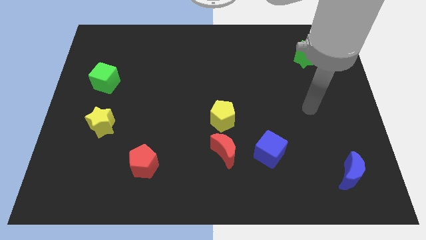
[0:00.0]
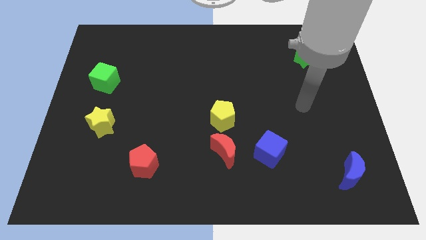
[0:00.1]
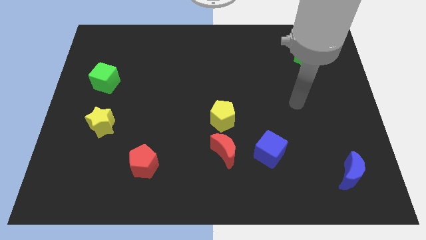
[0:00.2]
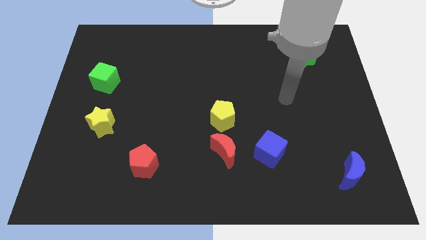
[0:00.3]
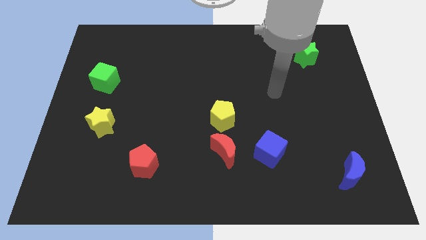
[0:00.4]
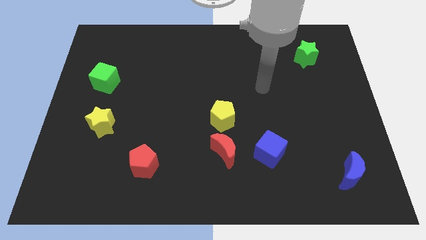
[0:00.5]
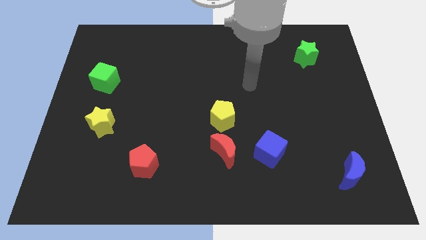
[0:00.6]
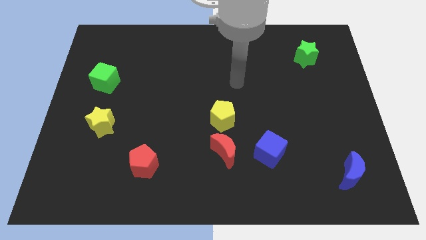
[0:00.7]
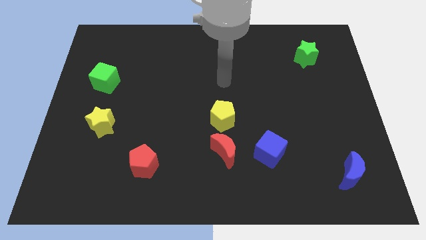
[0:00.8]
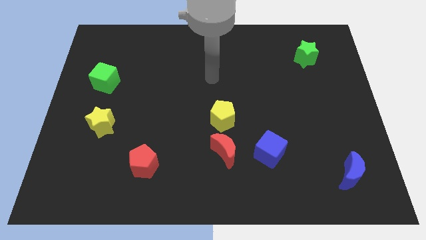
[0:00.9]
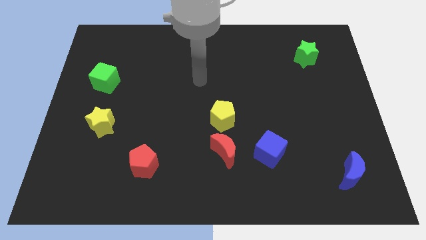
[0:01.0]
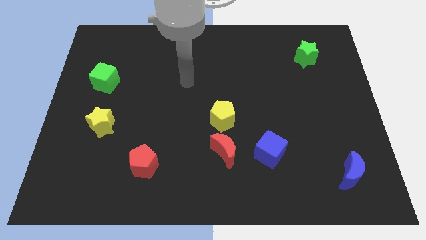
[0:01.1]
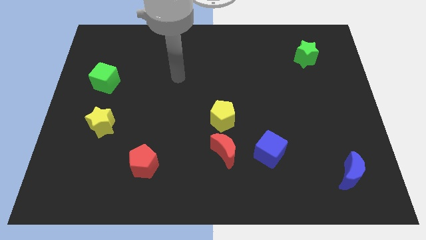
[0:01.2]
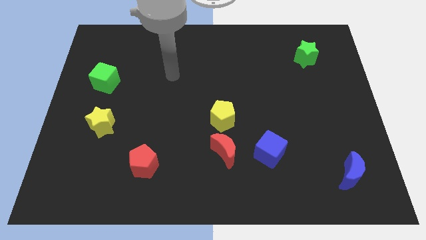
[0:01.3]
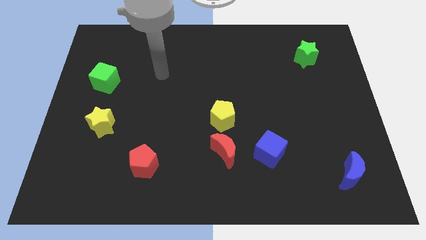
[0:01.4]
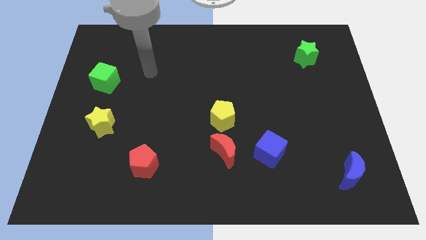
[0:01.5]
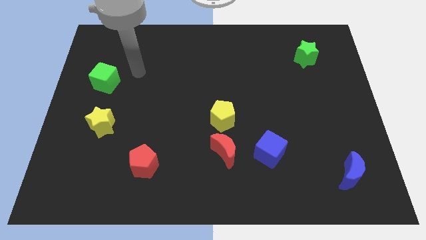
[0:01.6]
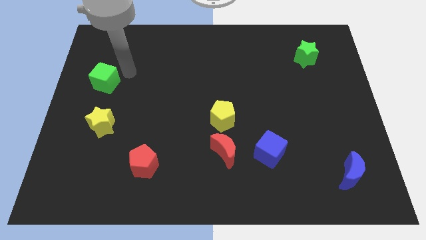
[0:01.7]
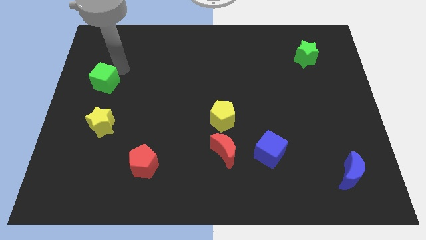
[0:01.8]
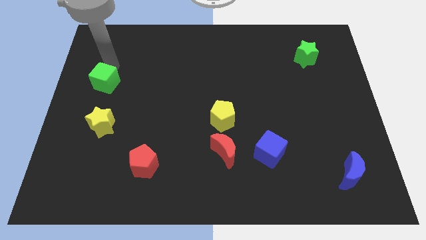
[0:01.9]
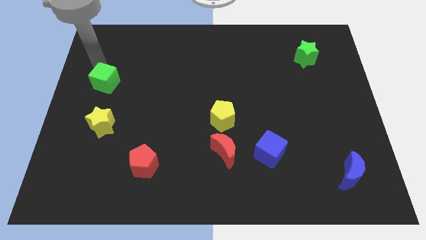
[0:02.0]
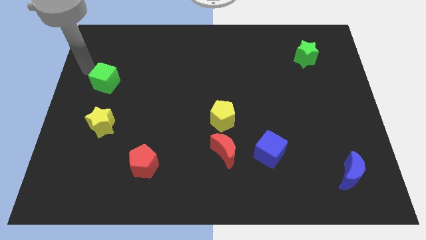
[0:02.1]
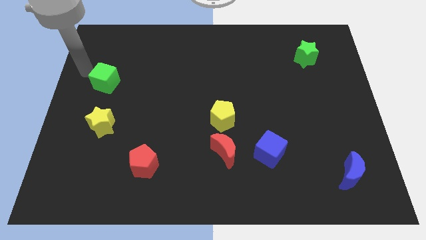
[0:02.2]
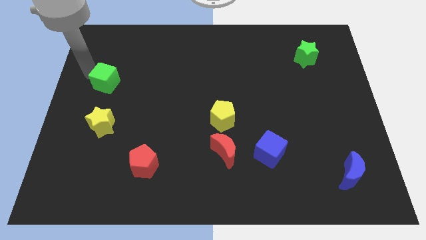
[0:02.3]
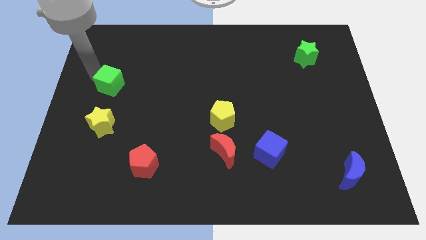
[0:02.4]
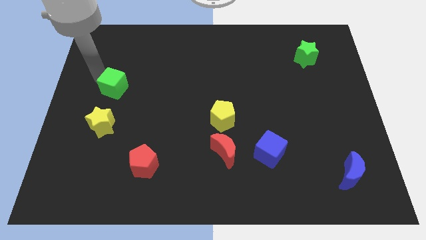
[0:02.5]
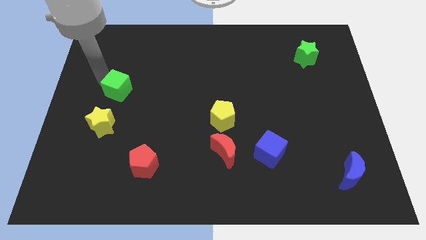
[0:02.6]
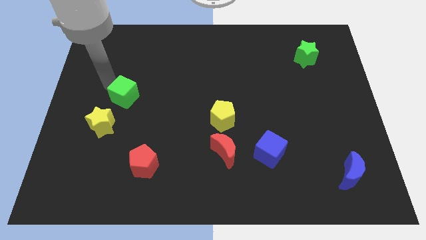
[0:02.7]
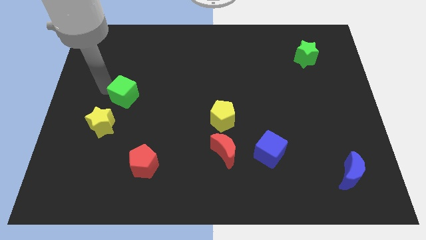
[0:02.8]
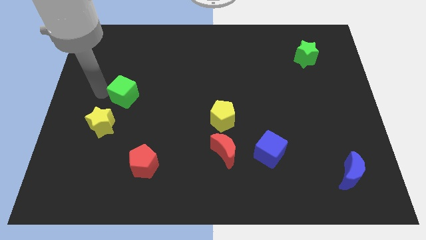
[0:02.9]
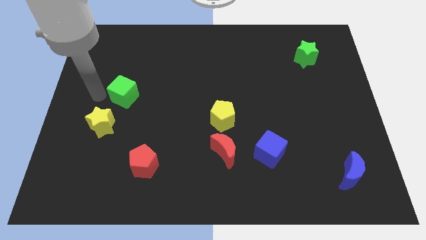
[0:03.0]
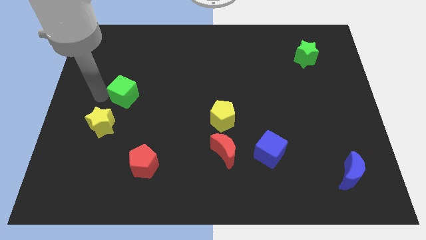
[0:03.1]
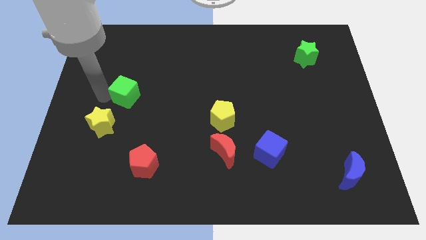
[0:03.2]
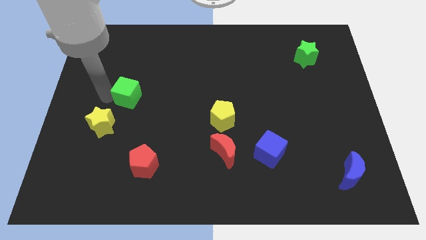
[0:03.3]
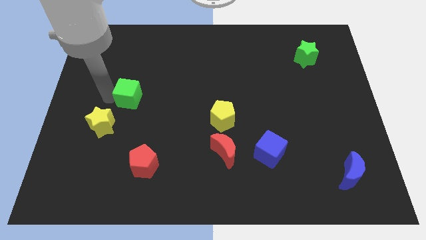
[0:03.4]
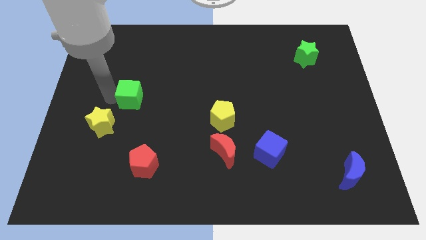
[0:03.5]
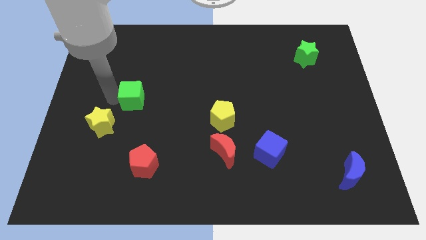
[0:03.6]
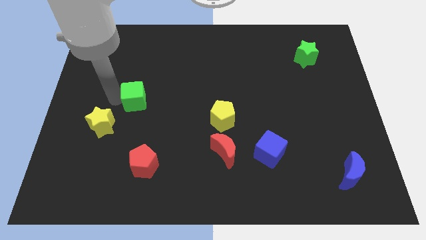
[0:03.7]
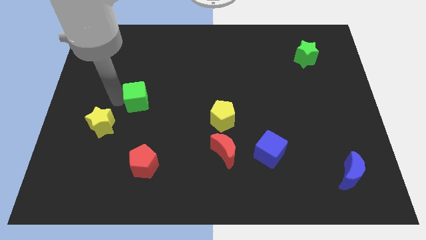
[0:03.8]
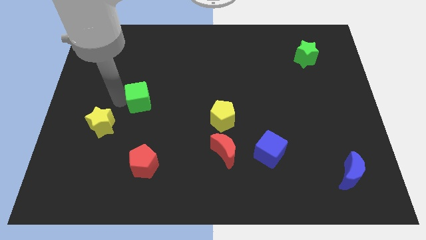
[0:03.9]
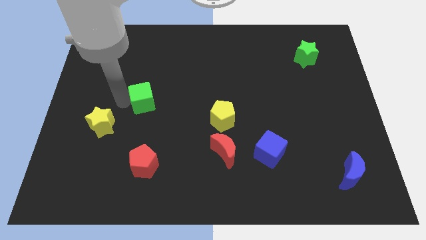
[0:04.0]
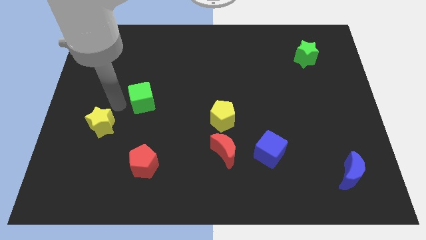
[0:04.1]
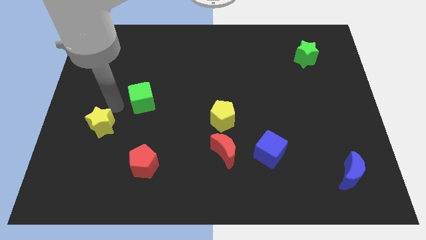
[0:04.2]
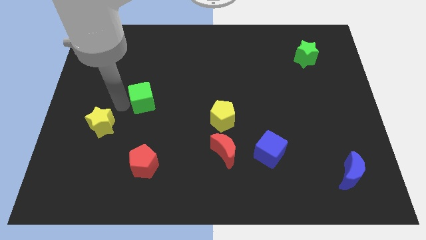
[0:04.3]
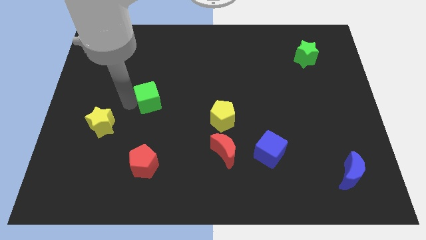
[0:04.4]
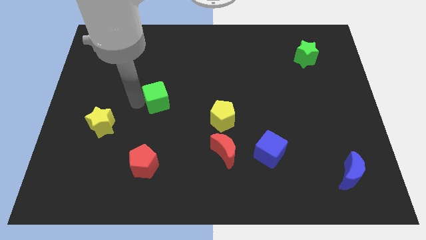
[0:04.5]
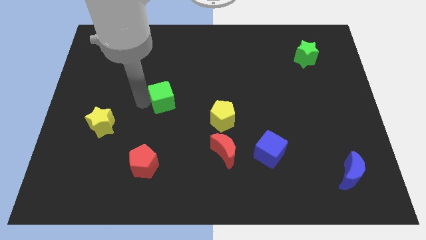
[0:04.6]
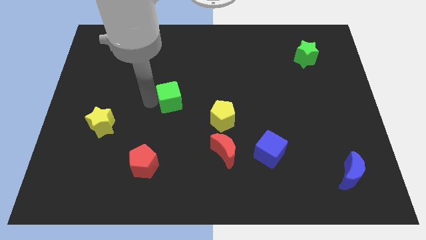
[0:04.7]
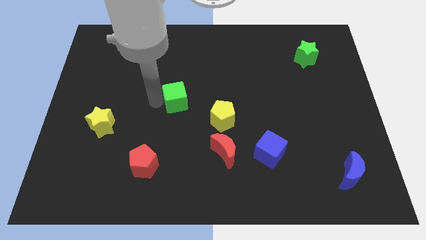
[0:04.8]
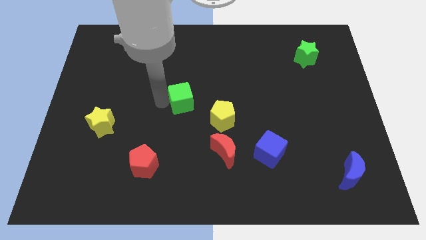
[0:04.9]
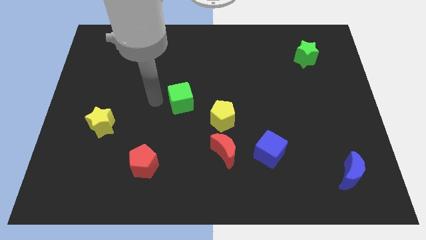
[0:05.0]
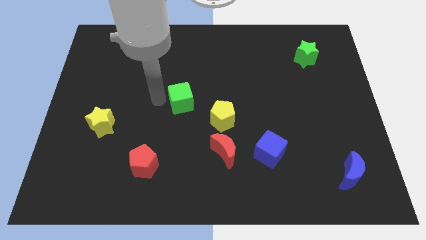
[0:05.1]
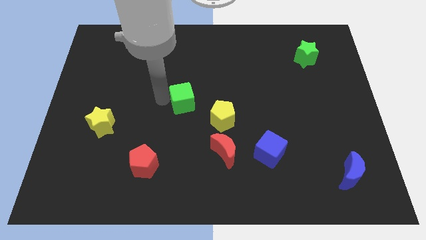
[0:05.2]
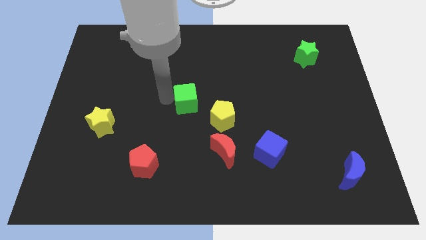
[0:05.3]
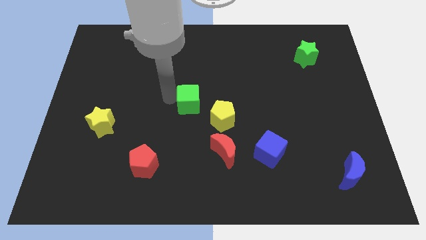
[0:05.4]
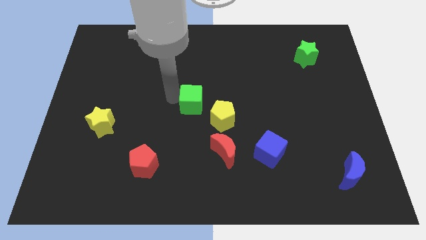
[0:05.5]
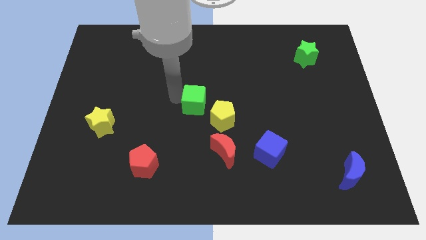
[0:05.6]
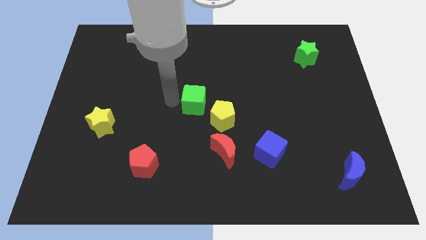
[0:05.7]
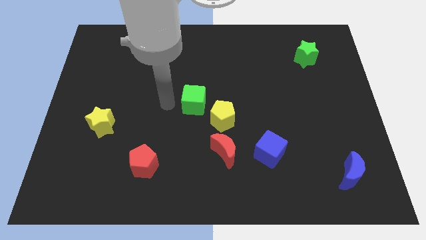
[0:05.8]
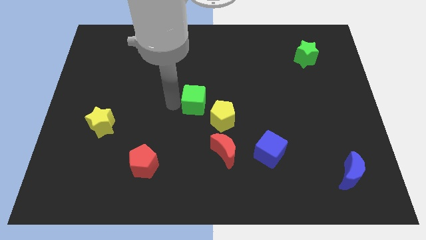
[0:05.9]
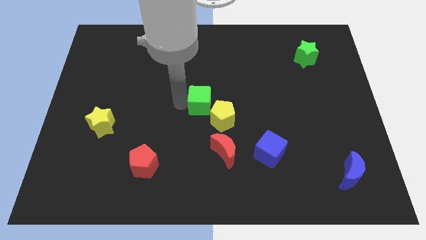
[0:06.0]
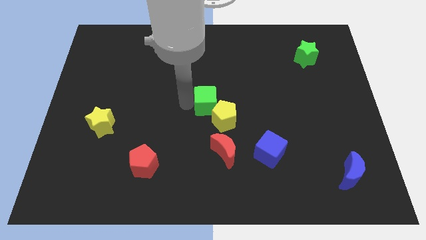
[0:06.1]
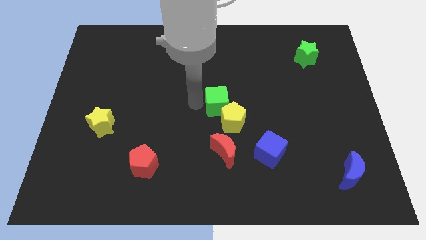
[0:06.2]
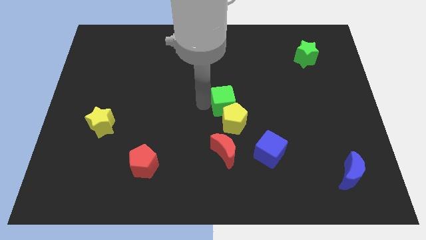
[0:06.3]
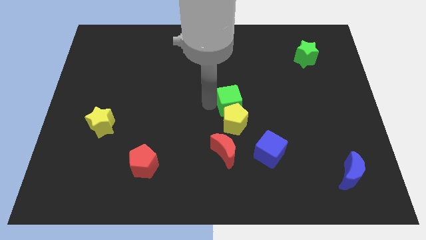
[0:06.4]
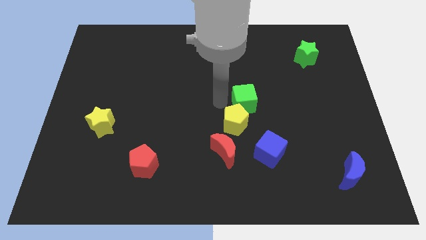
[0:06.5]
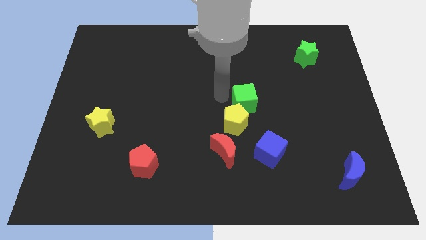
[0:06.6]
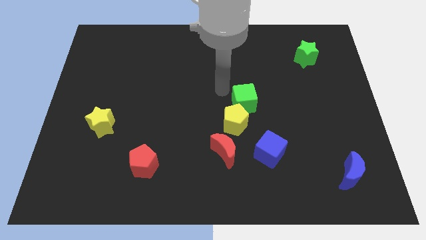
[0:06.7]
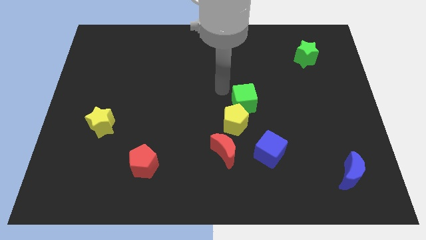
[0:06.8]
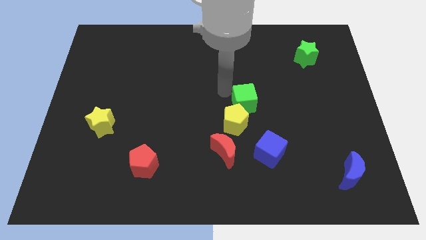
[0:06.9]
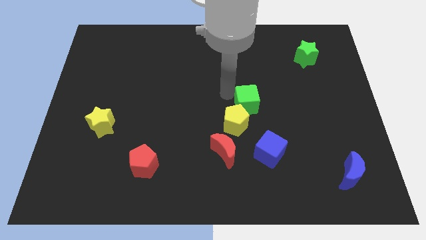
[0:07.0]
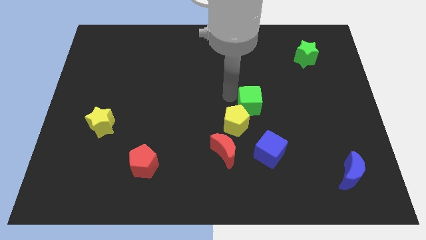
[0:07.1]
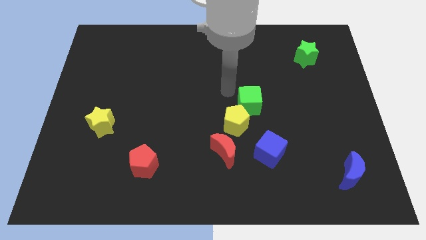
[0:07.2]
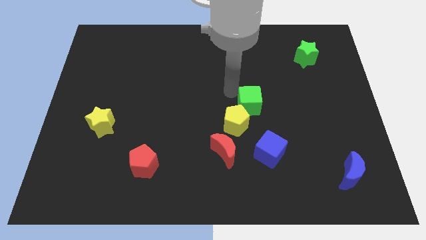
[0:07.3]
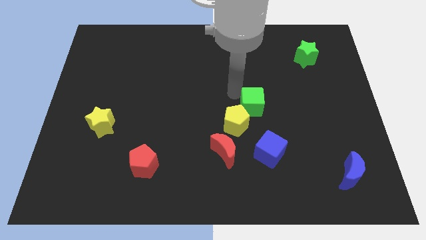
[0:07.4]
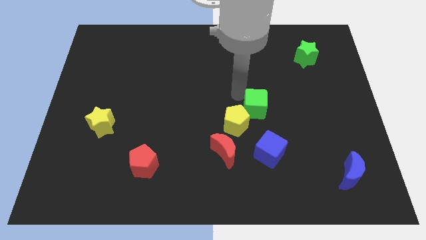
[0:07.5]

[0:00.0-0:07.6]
slide the green cube right of the yellow pentagon
